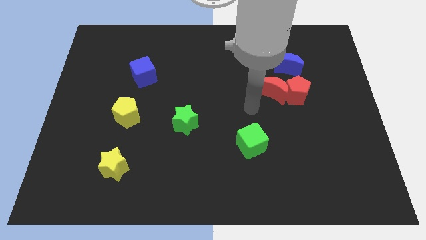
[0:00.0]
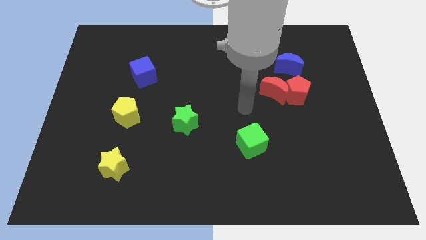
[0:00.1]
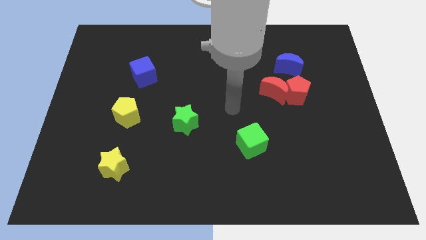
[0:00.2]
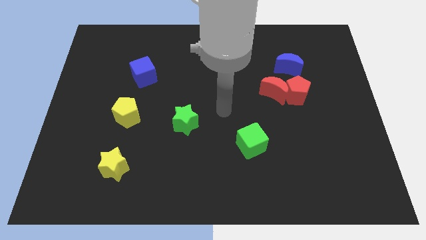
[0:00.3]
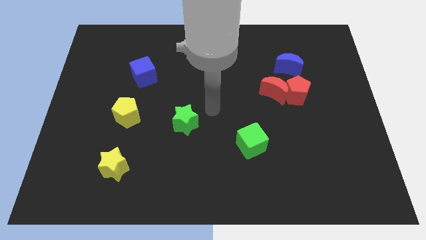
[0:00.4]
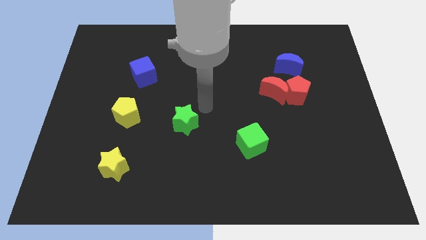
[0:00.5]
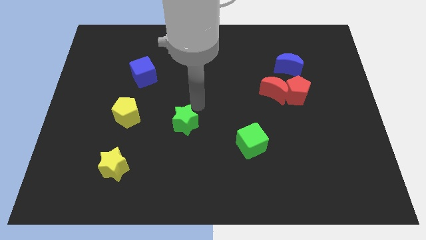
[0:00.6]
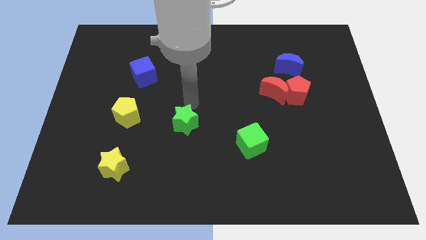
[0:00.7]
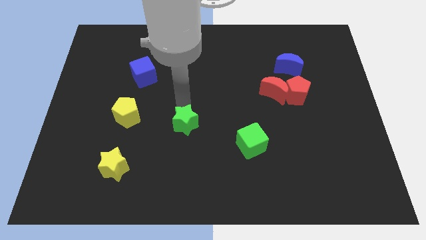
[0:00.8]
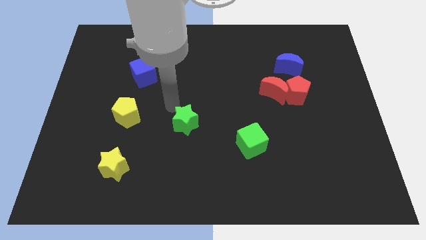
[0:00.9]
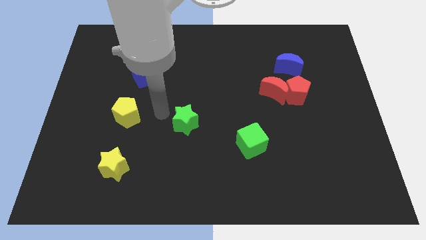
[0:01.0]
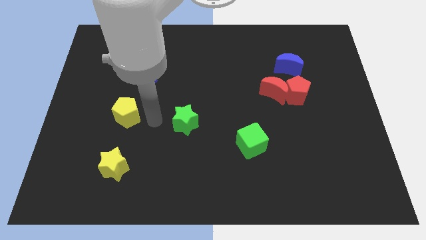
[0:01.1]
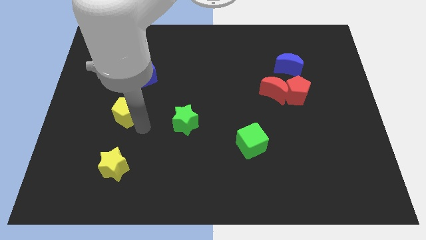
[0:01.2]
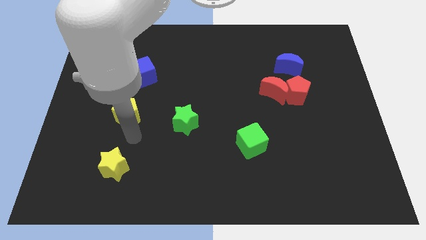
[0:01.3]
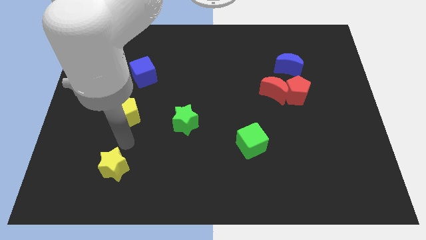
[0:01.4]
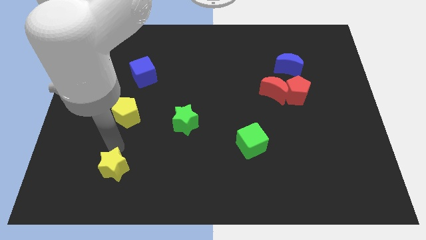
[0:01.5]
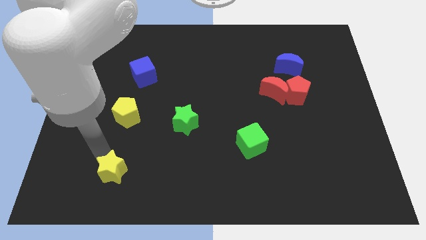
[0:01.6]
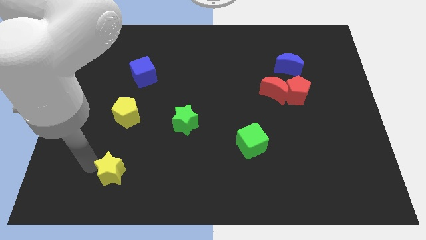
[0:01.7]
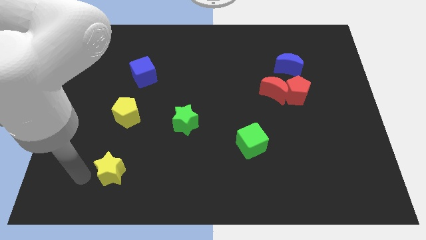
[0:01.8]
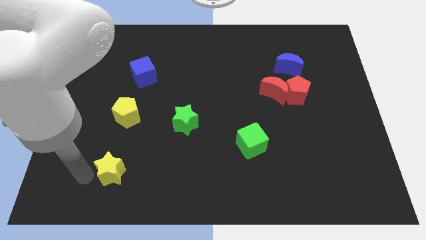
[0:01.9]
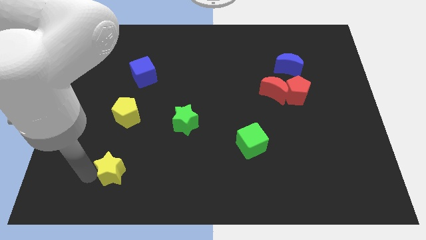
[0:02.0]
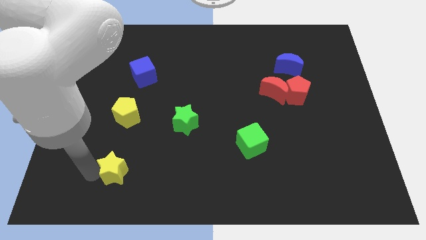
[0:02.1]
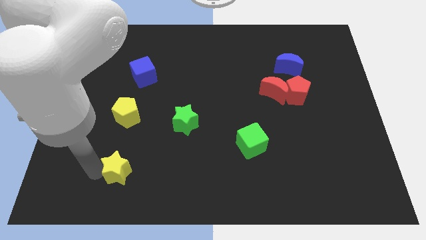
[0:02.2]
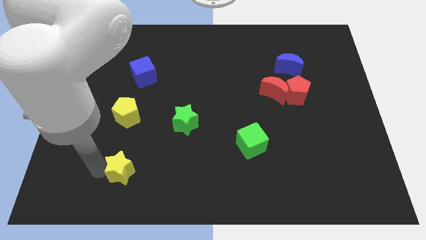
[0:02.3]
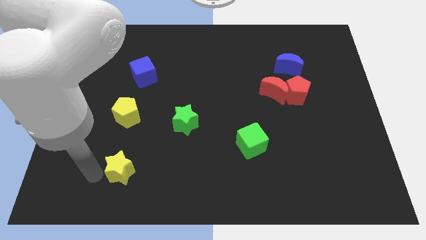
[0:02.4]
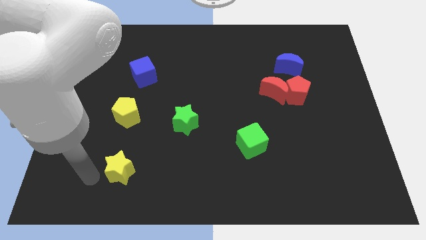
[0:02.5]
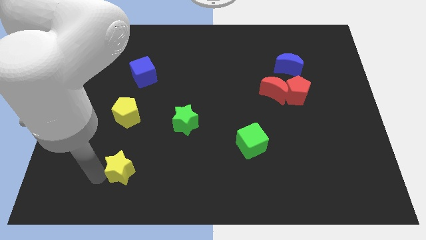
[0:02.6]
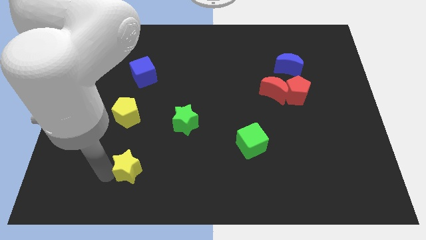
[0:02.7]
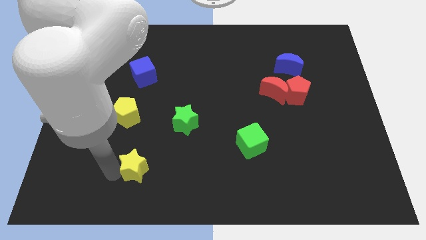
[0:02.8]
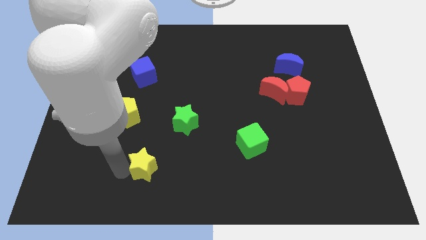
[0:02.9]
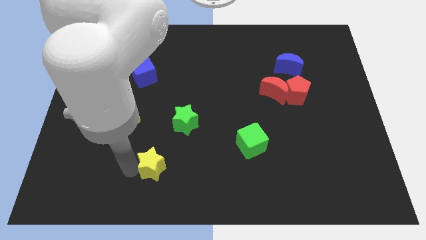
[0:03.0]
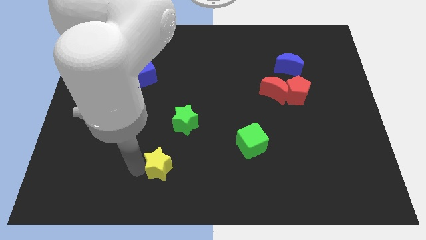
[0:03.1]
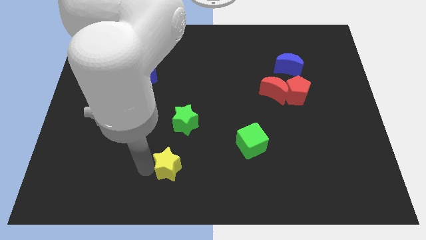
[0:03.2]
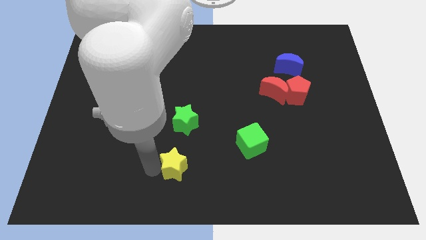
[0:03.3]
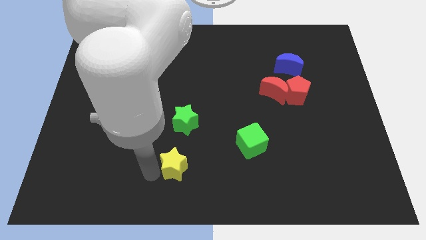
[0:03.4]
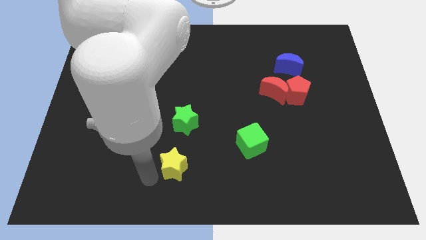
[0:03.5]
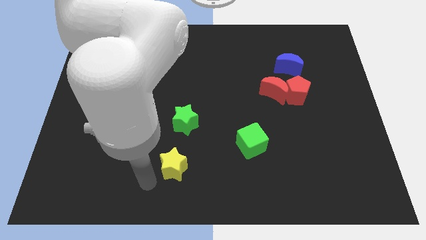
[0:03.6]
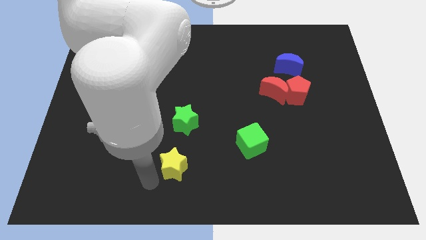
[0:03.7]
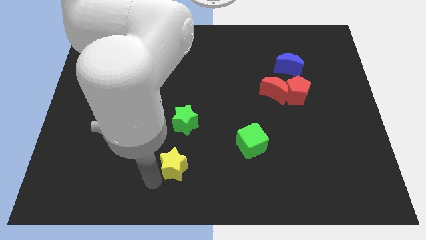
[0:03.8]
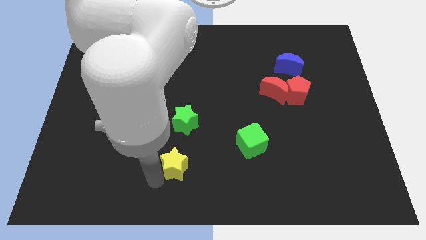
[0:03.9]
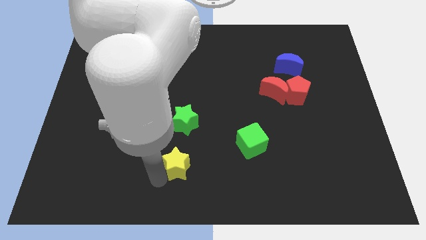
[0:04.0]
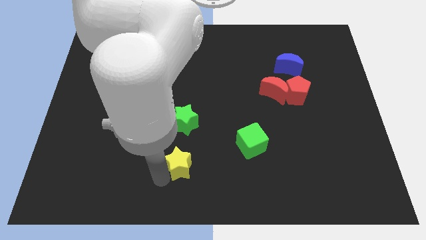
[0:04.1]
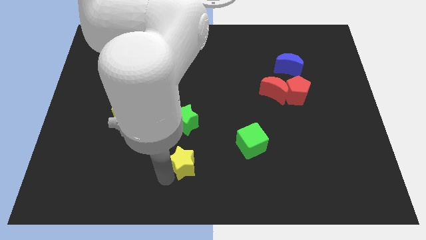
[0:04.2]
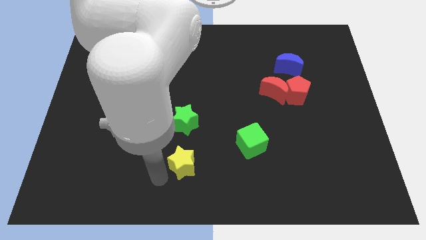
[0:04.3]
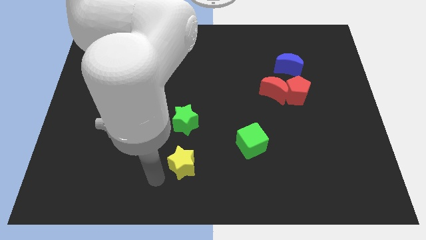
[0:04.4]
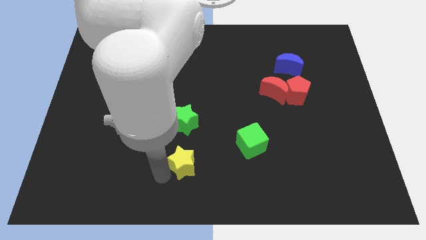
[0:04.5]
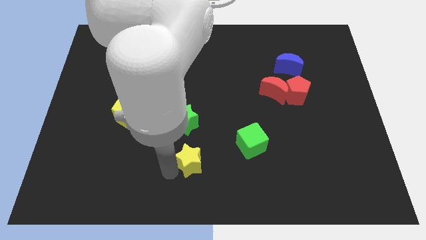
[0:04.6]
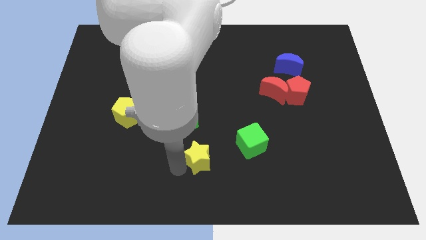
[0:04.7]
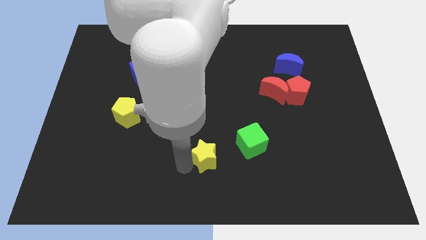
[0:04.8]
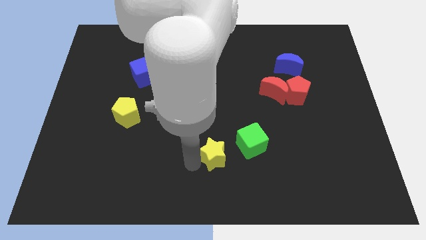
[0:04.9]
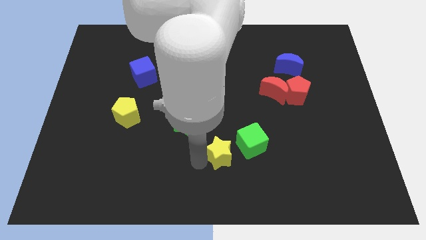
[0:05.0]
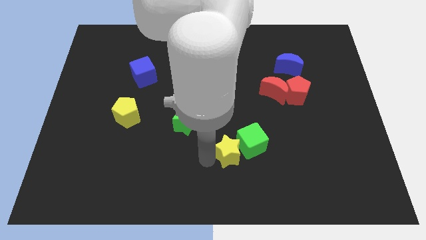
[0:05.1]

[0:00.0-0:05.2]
put the yellow star towards the green cube

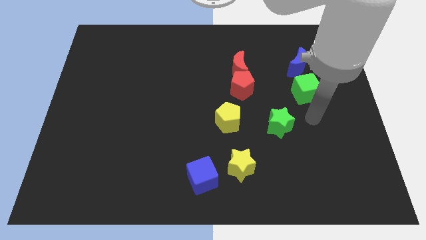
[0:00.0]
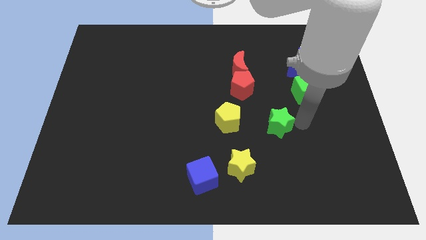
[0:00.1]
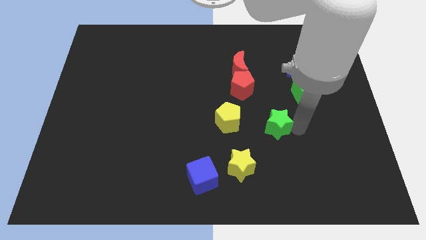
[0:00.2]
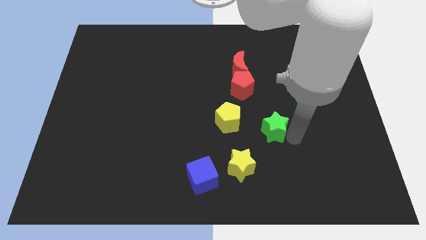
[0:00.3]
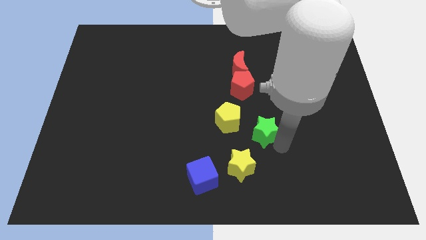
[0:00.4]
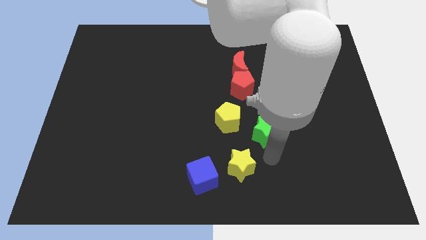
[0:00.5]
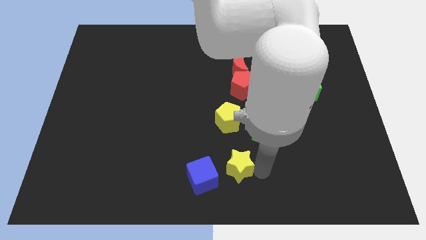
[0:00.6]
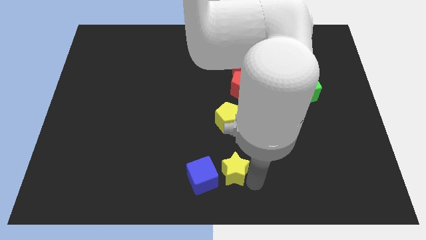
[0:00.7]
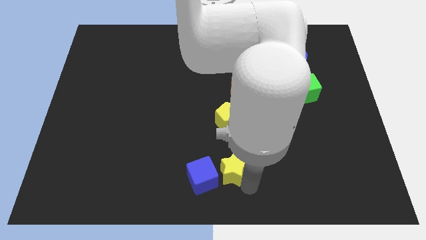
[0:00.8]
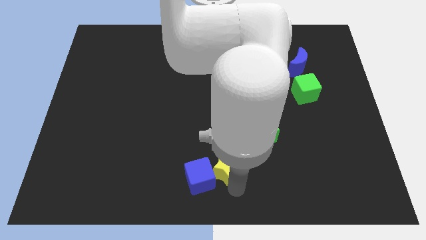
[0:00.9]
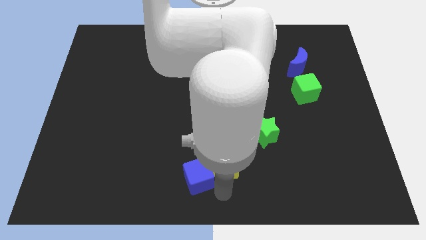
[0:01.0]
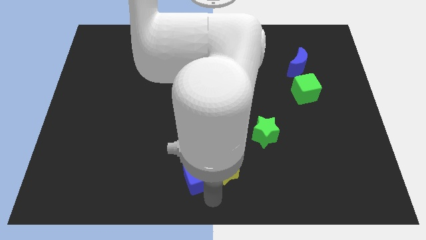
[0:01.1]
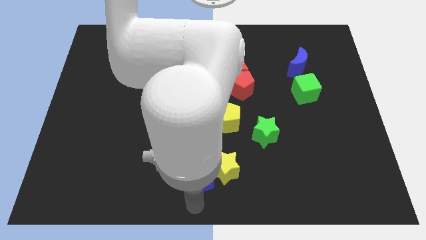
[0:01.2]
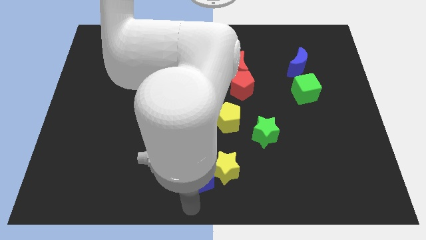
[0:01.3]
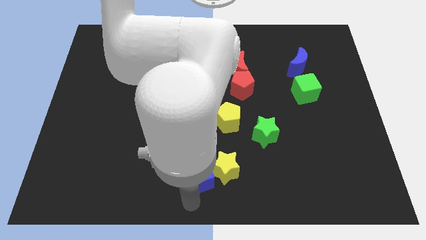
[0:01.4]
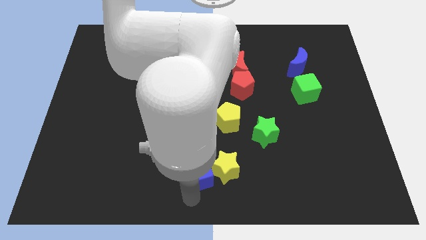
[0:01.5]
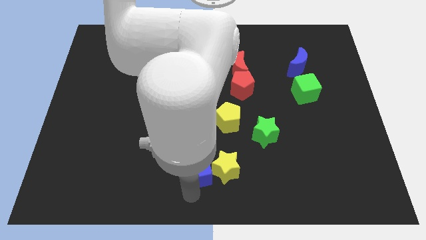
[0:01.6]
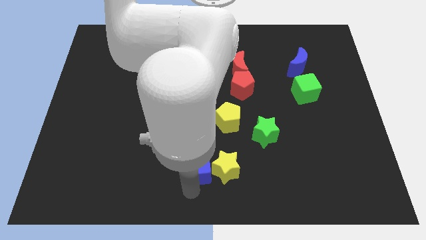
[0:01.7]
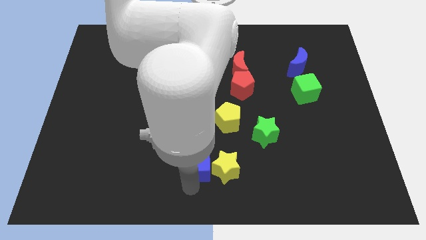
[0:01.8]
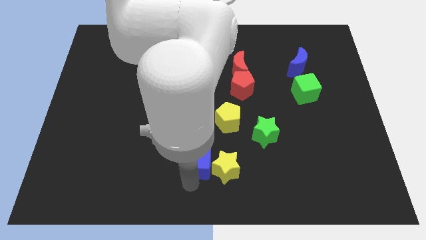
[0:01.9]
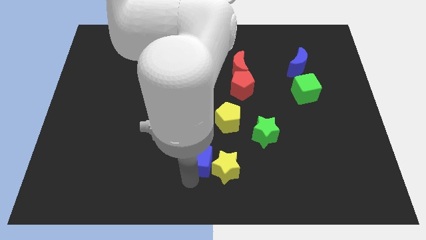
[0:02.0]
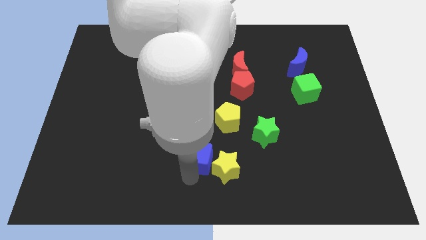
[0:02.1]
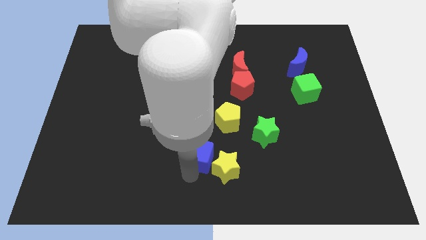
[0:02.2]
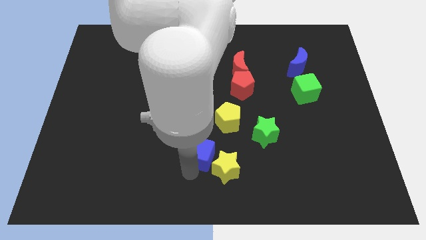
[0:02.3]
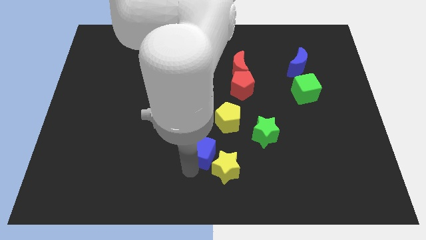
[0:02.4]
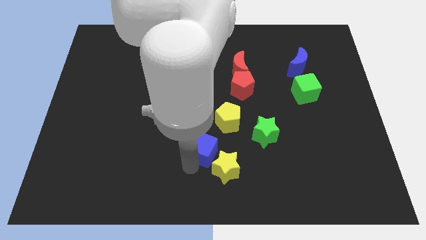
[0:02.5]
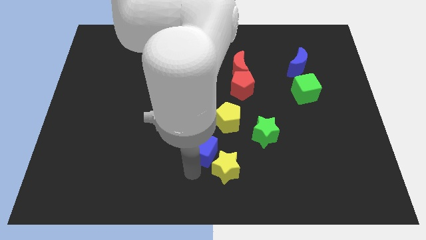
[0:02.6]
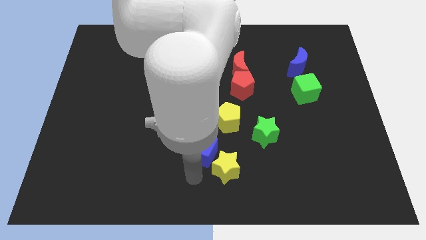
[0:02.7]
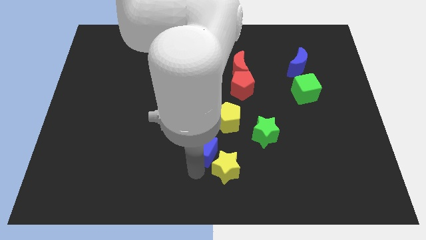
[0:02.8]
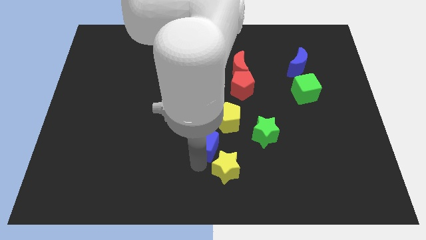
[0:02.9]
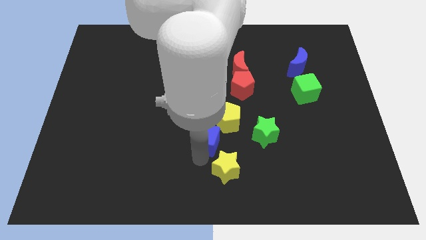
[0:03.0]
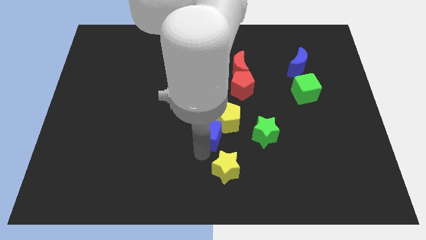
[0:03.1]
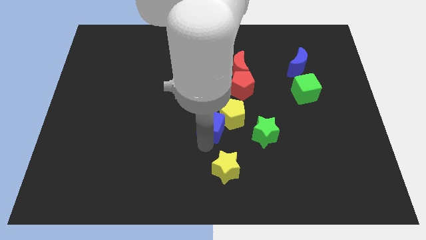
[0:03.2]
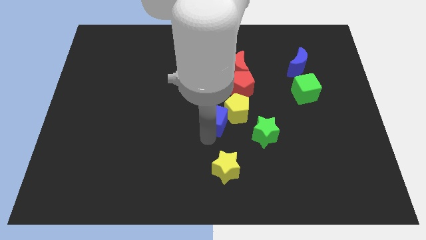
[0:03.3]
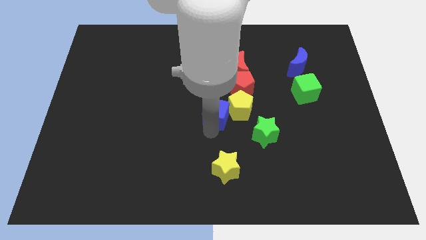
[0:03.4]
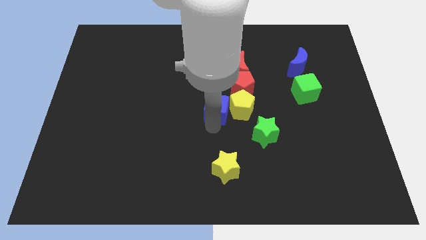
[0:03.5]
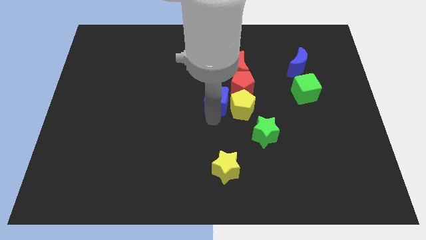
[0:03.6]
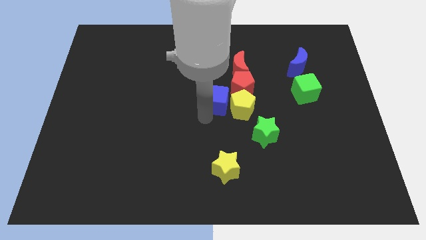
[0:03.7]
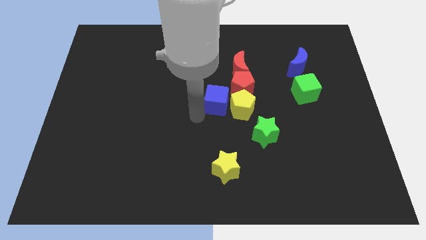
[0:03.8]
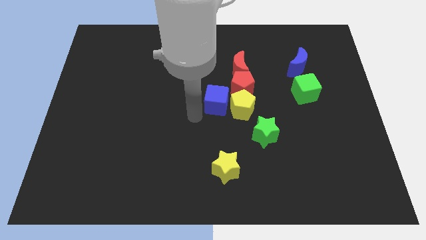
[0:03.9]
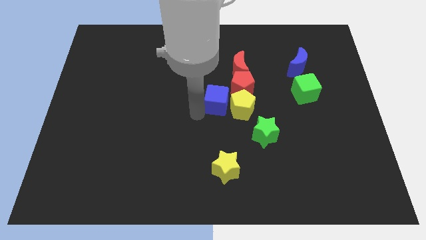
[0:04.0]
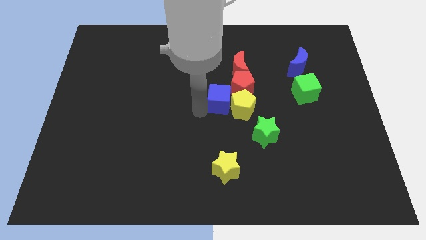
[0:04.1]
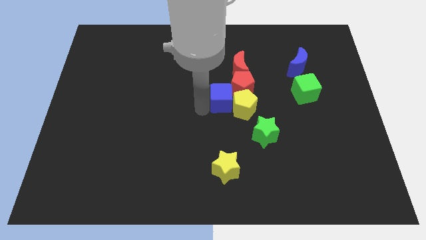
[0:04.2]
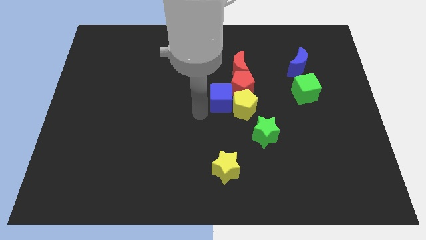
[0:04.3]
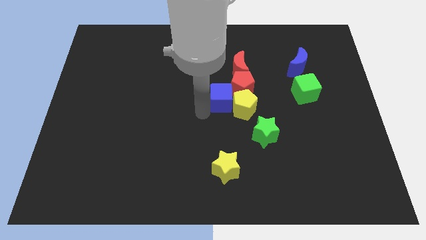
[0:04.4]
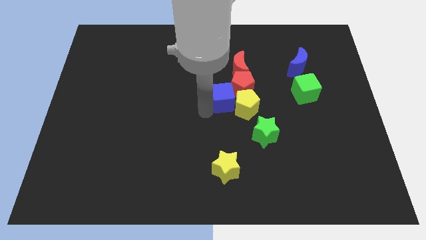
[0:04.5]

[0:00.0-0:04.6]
slide the blue cube to the red pentagon
